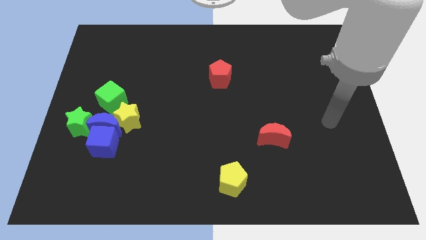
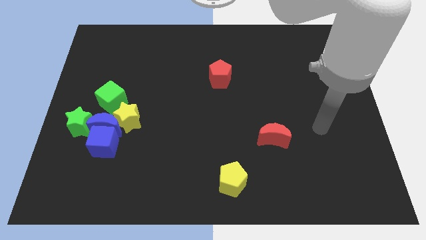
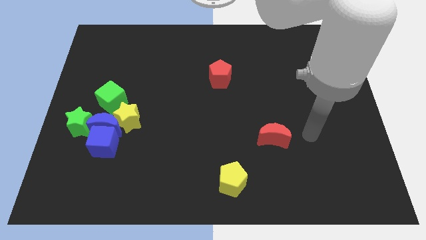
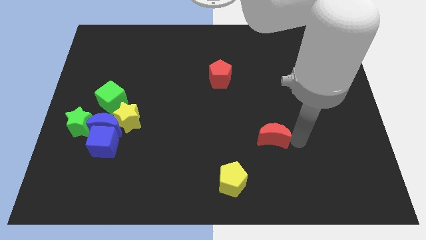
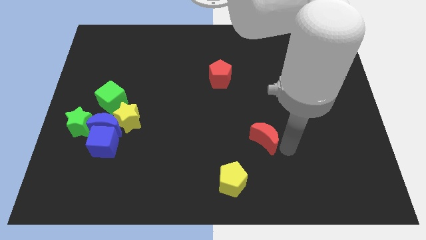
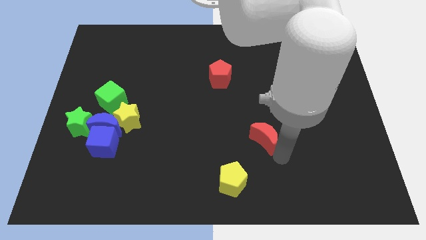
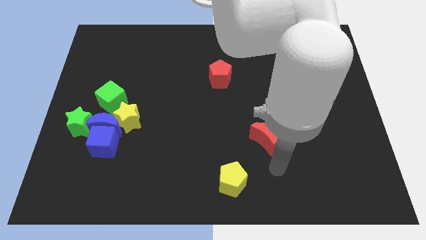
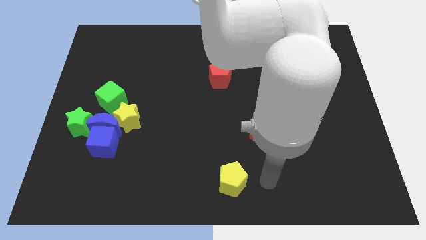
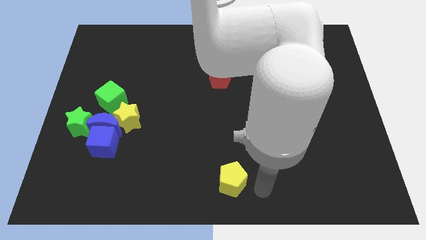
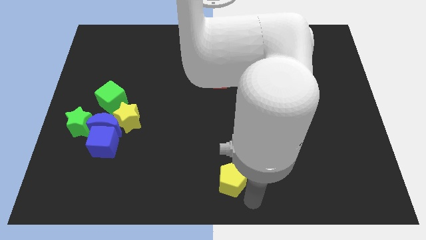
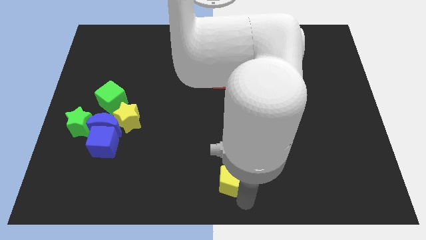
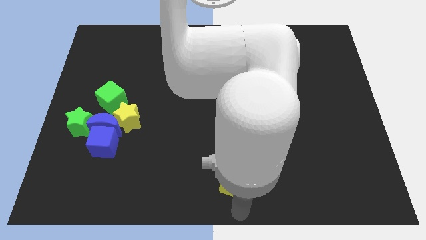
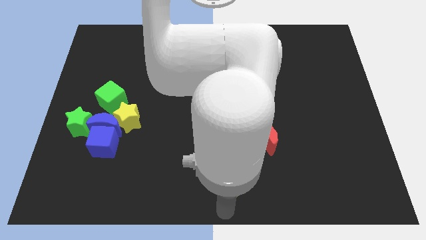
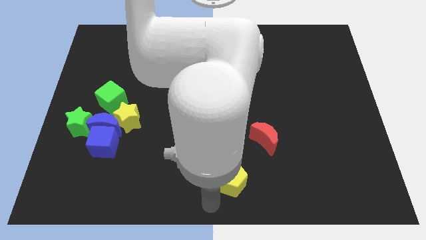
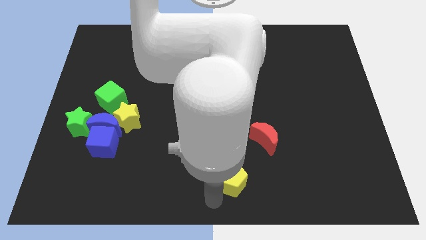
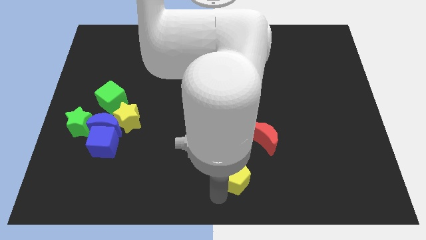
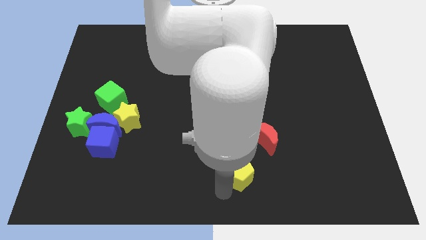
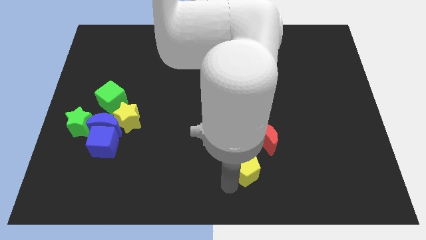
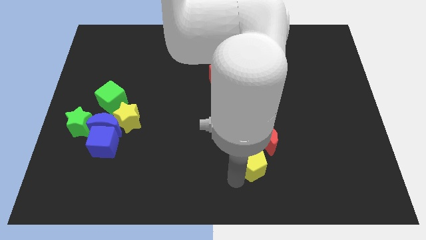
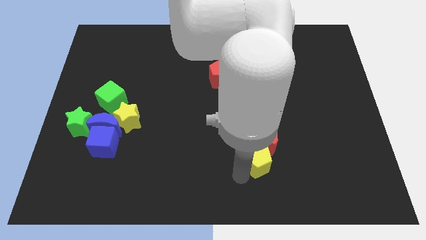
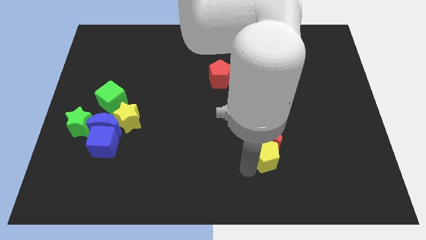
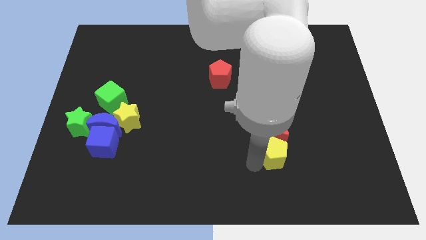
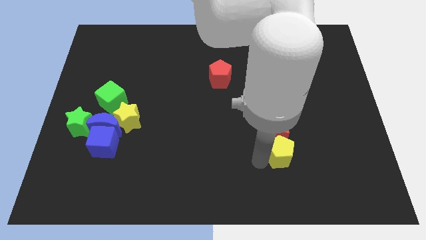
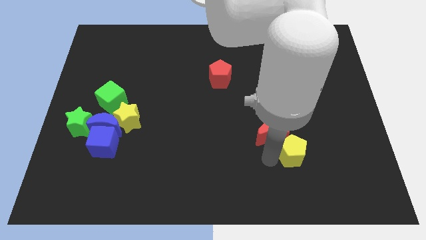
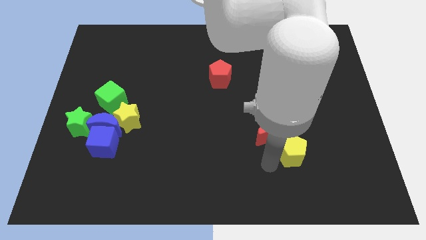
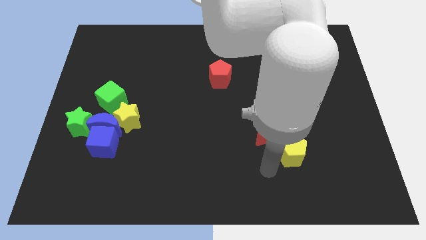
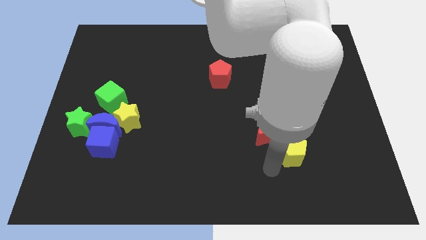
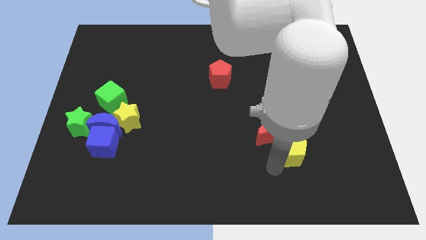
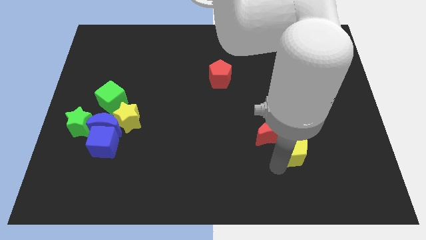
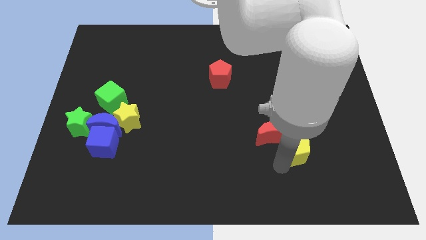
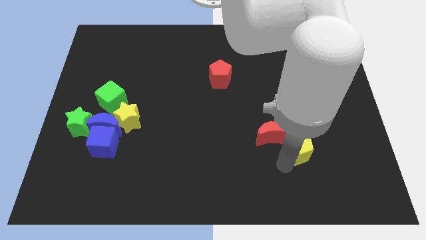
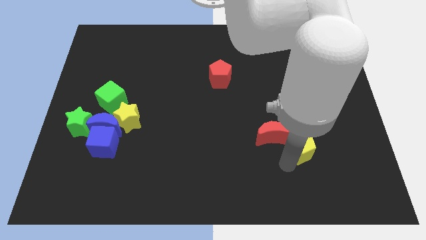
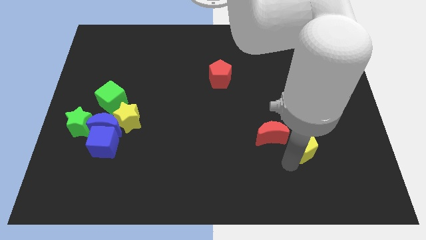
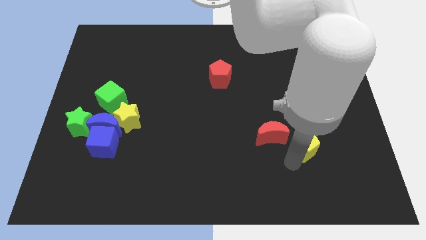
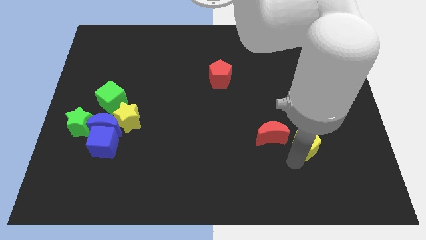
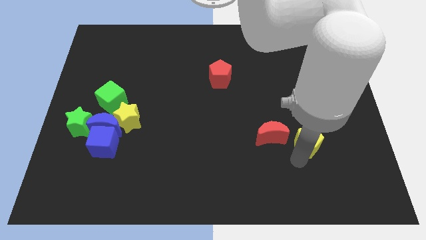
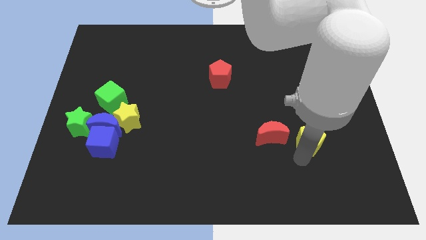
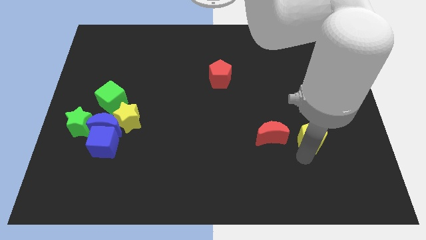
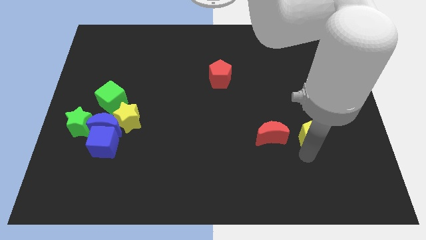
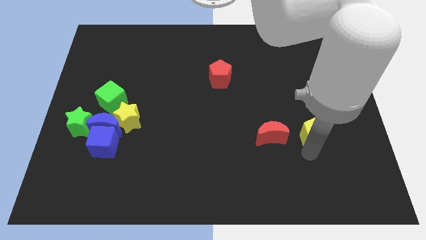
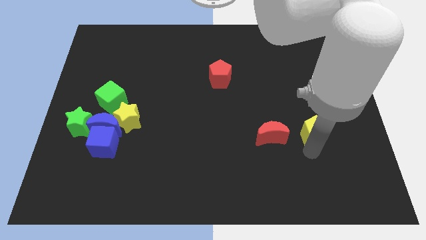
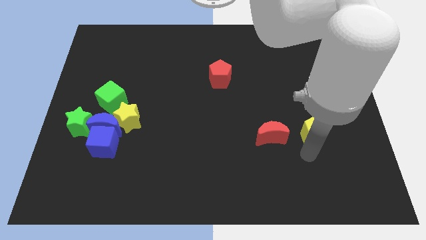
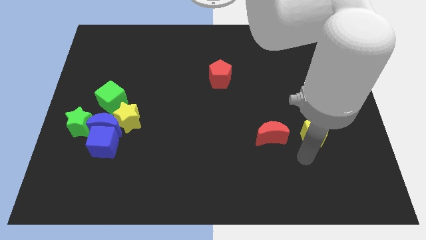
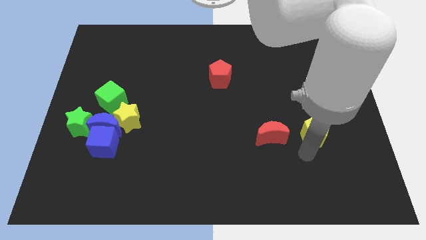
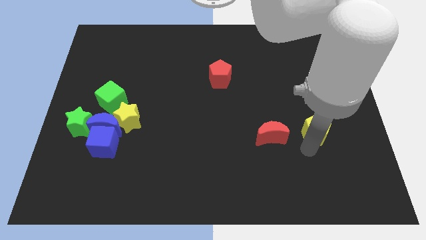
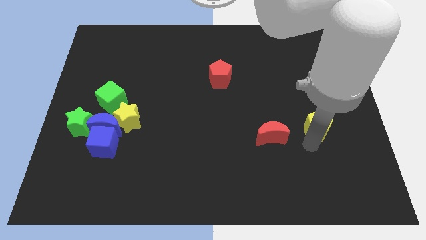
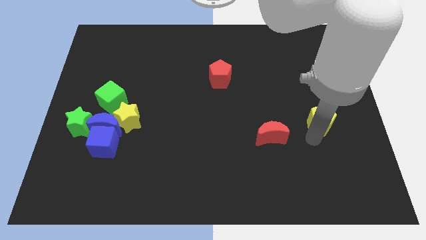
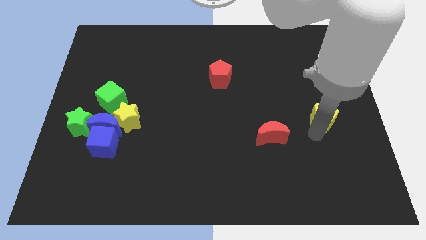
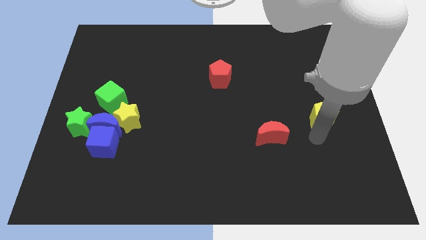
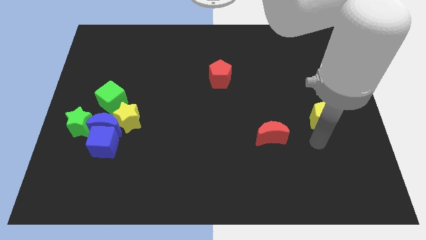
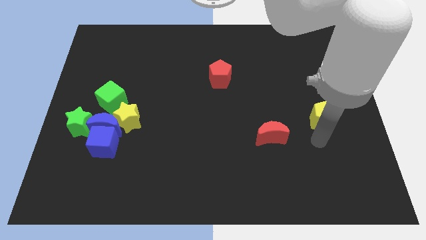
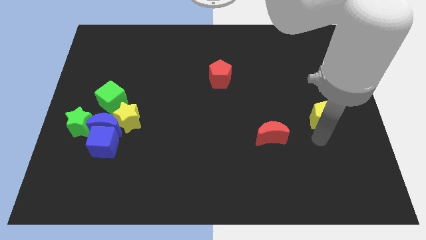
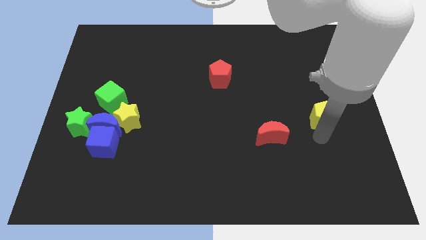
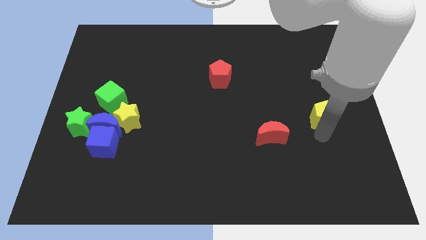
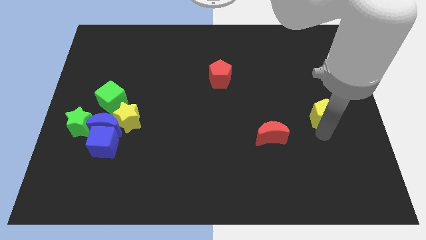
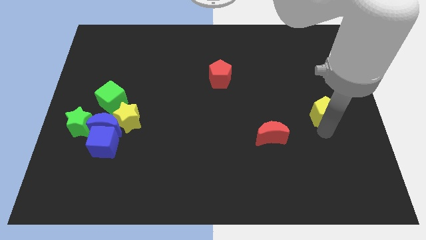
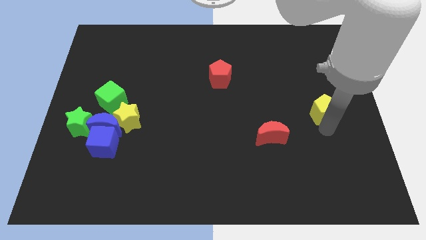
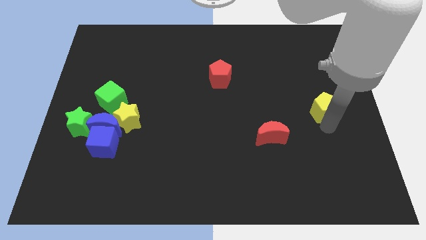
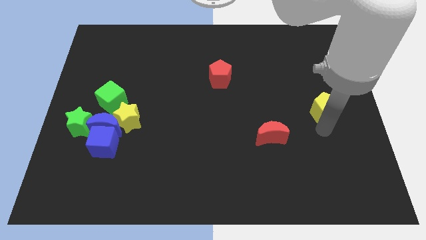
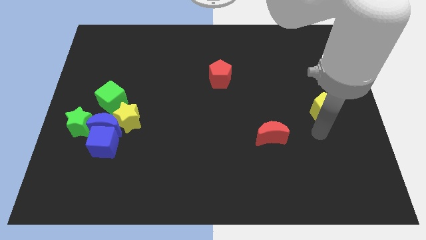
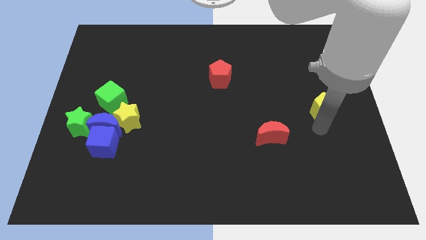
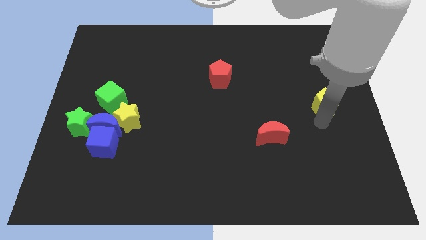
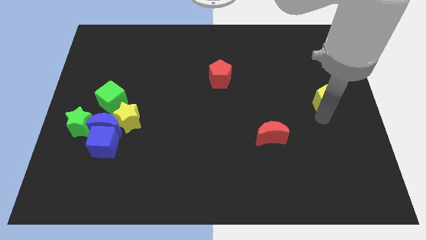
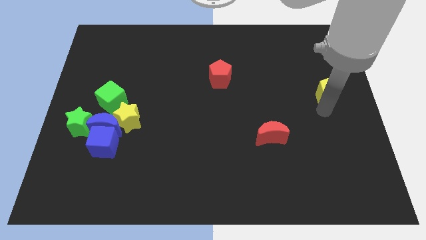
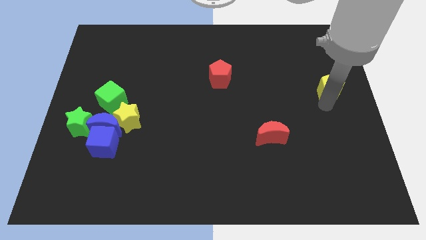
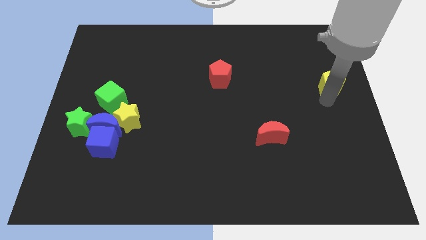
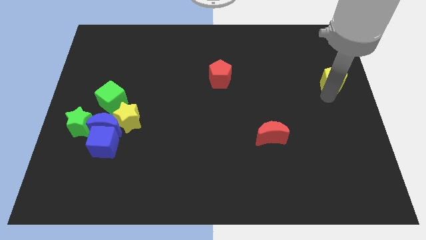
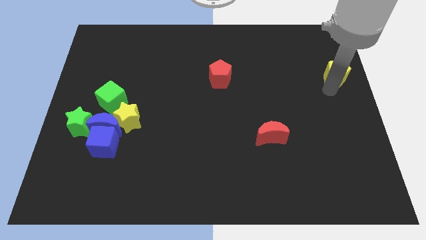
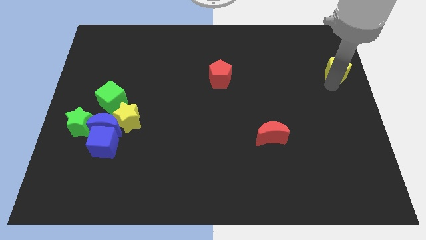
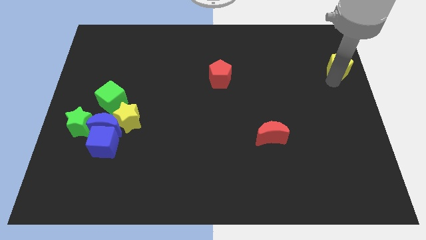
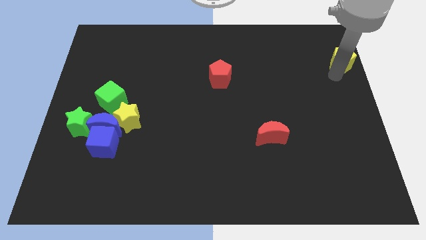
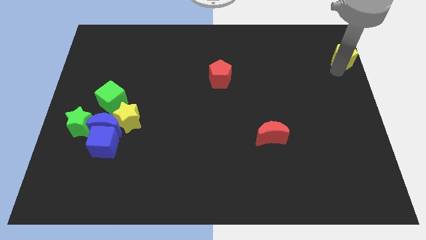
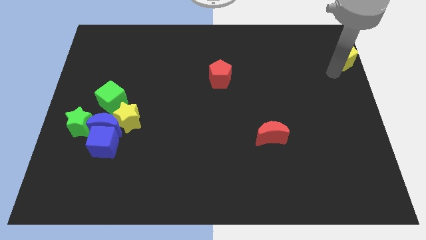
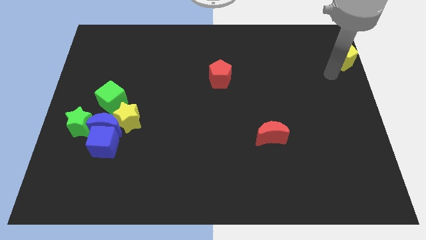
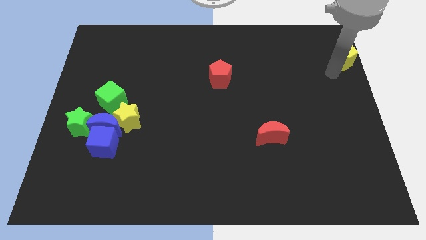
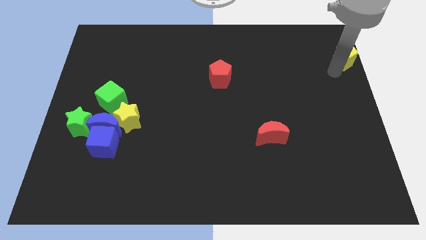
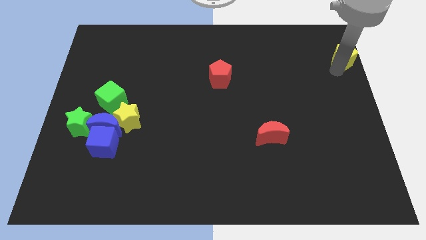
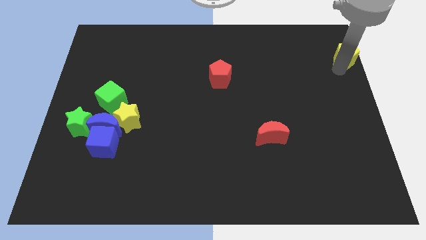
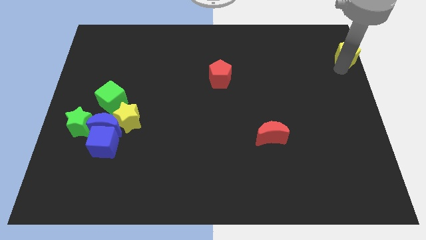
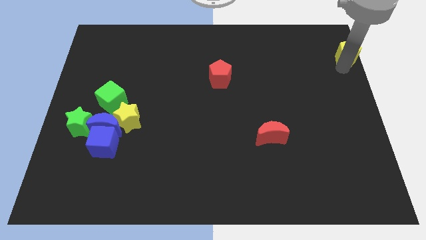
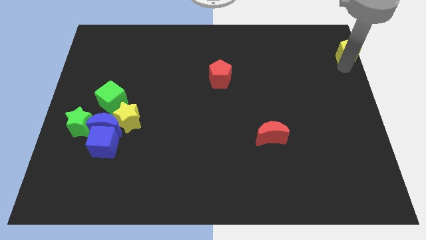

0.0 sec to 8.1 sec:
slide the yellow pentagon to the top right
